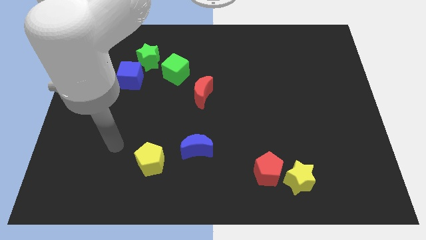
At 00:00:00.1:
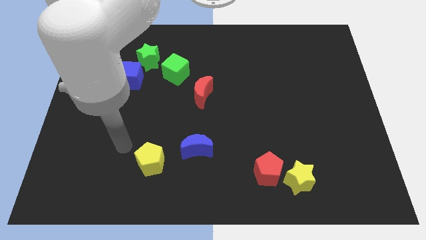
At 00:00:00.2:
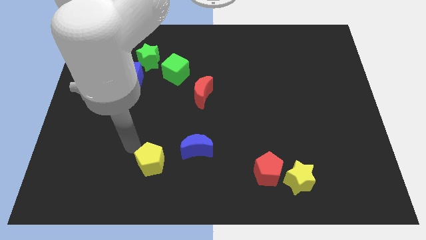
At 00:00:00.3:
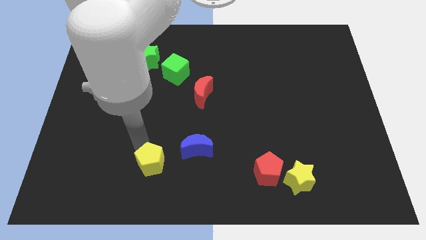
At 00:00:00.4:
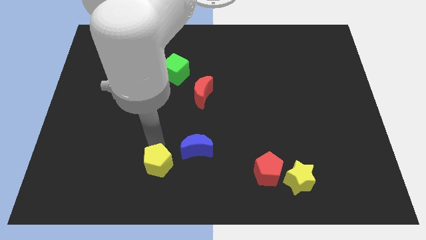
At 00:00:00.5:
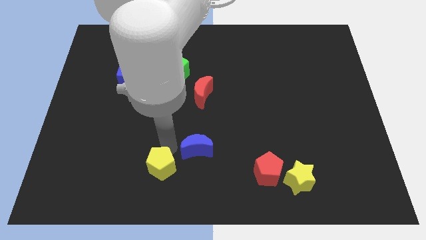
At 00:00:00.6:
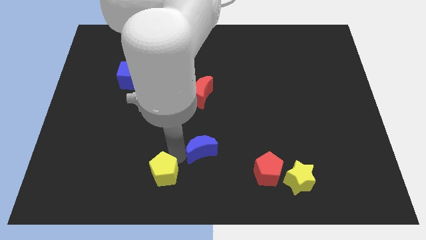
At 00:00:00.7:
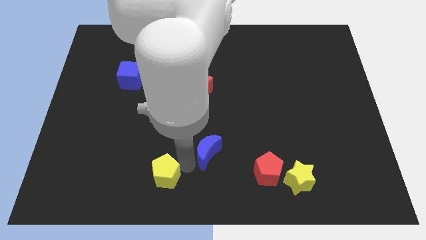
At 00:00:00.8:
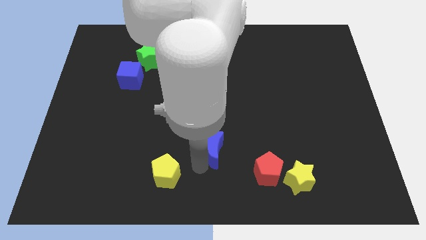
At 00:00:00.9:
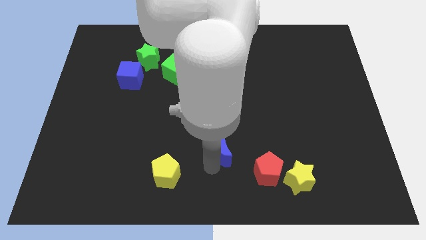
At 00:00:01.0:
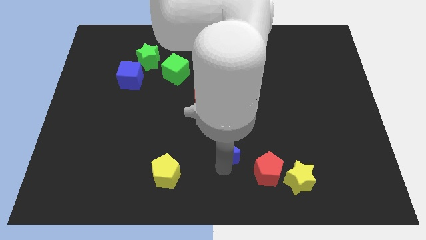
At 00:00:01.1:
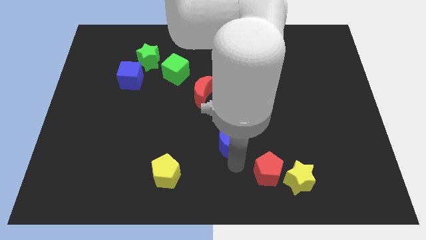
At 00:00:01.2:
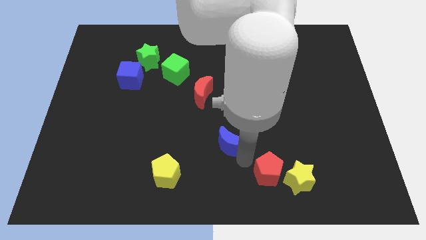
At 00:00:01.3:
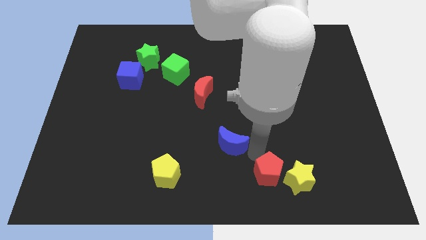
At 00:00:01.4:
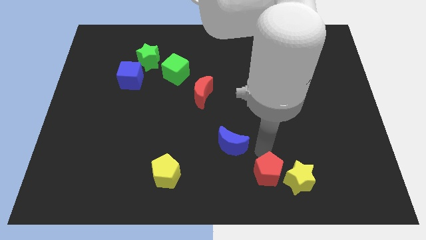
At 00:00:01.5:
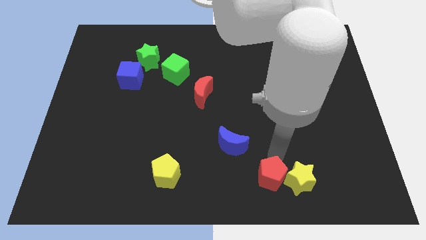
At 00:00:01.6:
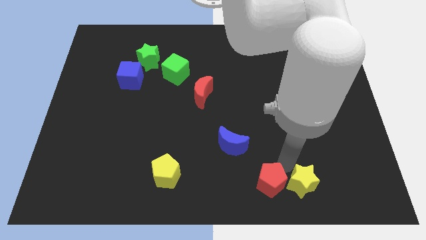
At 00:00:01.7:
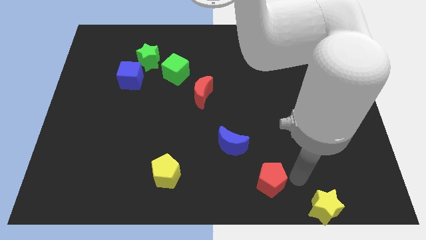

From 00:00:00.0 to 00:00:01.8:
pull the red pentagon apart from the yellow star

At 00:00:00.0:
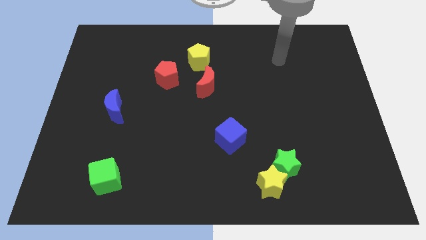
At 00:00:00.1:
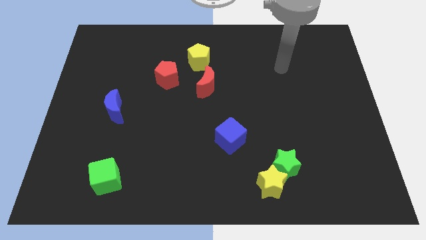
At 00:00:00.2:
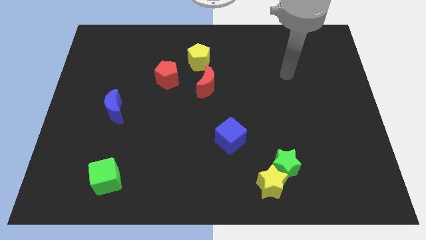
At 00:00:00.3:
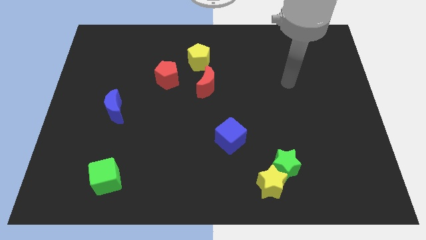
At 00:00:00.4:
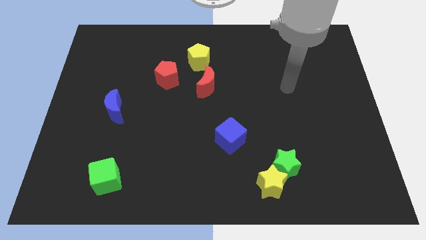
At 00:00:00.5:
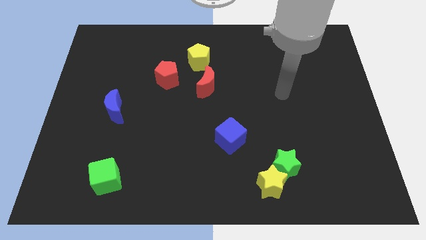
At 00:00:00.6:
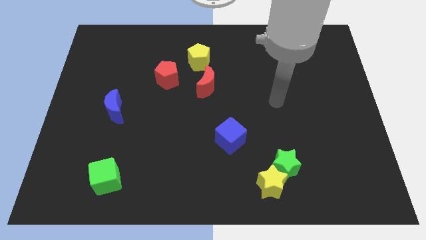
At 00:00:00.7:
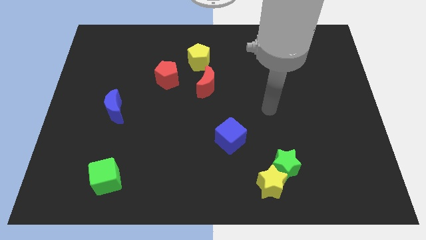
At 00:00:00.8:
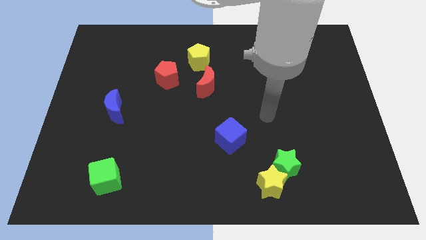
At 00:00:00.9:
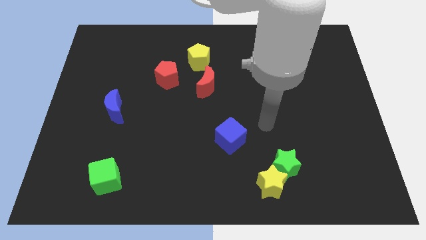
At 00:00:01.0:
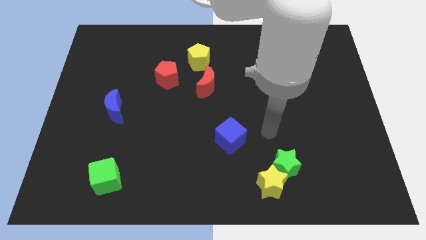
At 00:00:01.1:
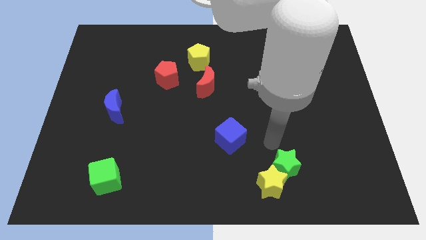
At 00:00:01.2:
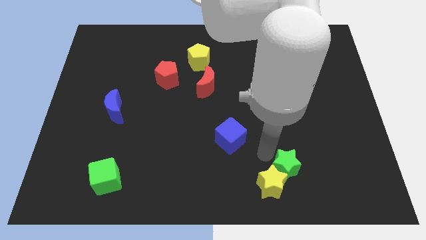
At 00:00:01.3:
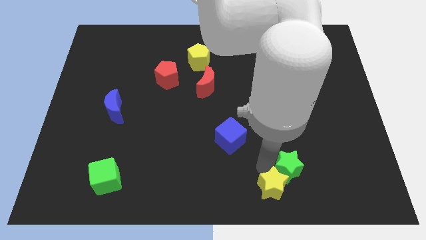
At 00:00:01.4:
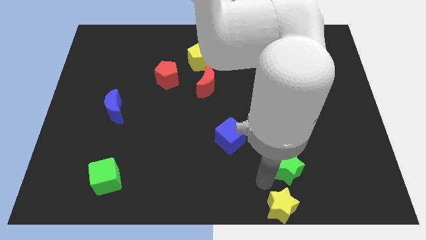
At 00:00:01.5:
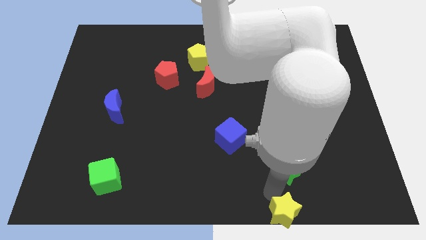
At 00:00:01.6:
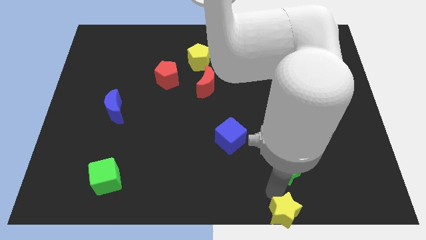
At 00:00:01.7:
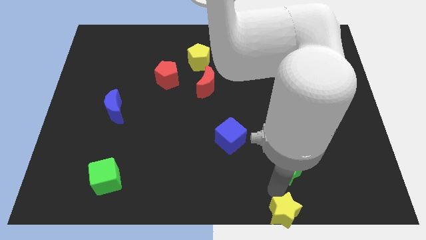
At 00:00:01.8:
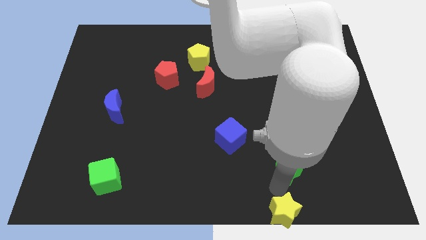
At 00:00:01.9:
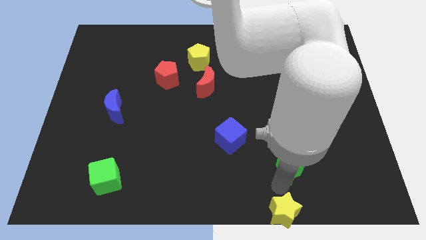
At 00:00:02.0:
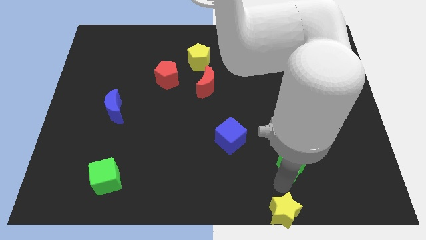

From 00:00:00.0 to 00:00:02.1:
separate the green star from the yellow star

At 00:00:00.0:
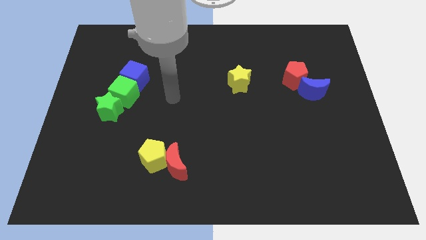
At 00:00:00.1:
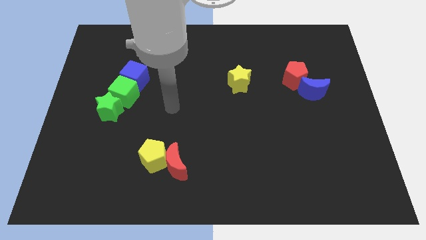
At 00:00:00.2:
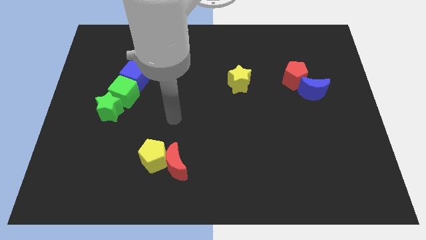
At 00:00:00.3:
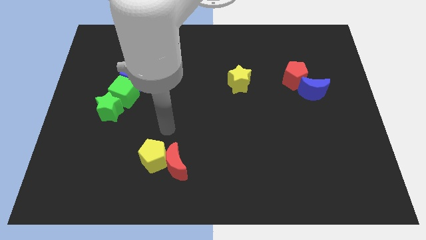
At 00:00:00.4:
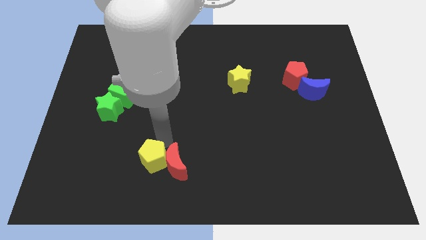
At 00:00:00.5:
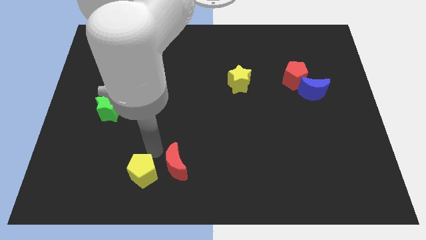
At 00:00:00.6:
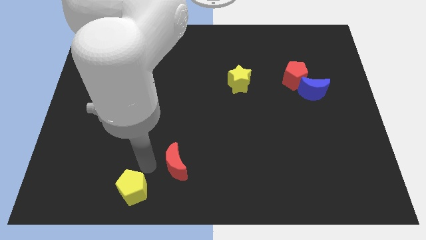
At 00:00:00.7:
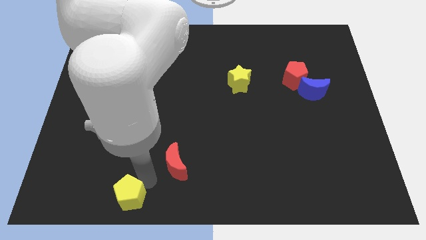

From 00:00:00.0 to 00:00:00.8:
move the red moon away from the yellow pentagon

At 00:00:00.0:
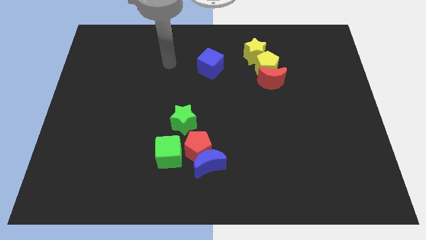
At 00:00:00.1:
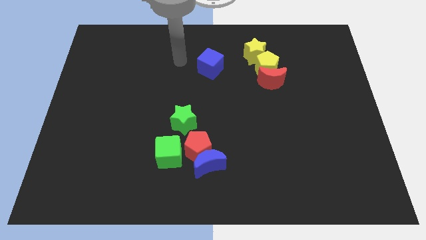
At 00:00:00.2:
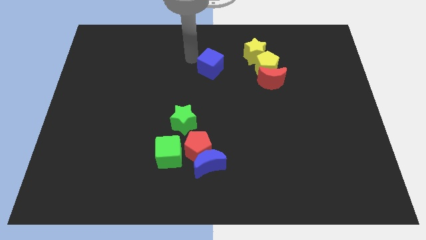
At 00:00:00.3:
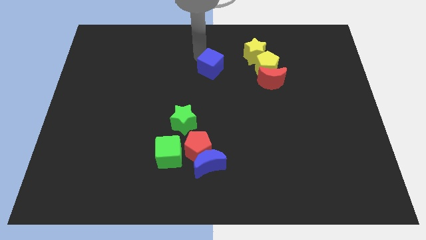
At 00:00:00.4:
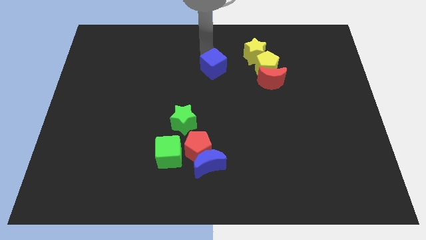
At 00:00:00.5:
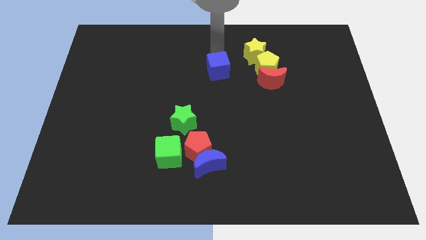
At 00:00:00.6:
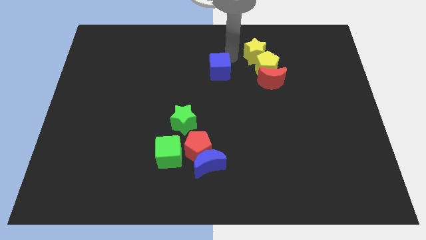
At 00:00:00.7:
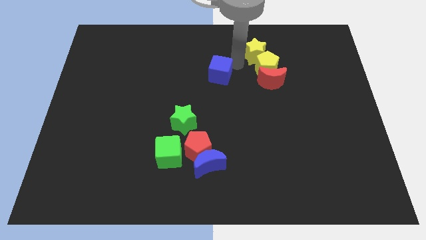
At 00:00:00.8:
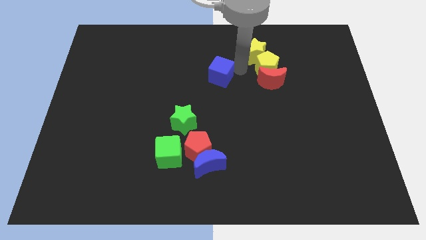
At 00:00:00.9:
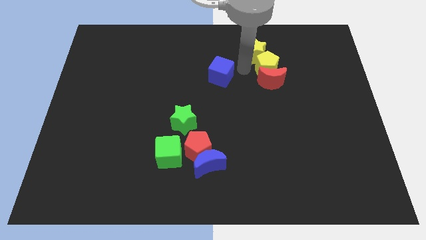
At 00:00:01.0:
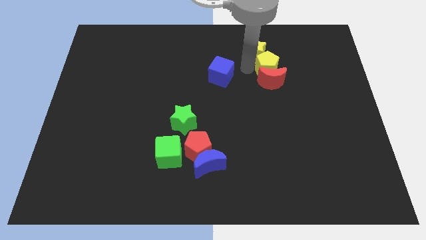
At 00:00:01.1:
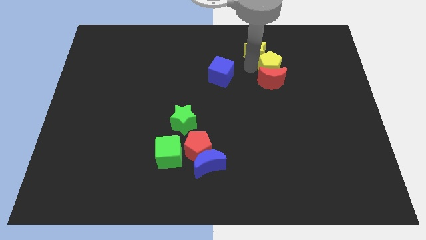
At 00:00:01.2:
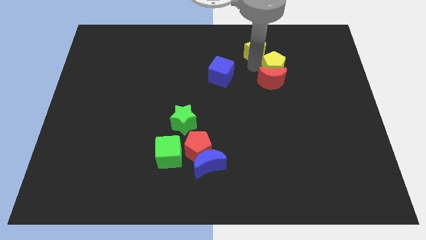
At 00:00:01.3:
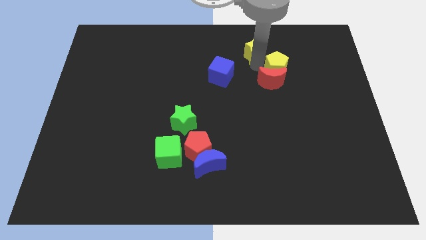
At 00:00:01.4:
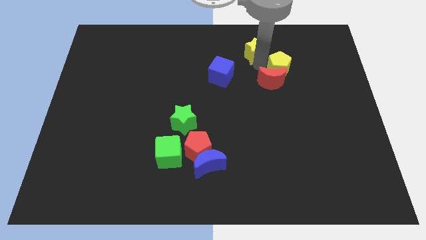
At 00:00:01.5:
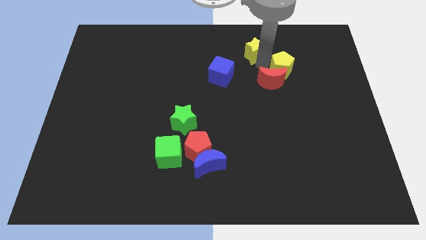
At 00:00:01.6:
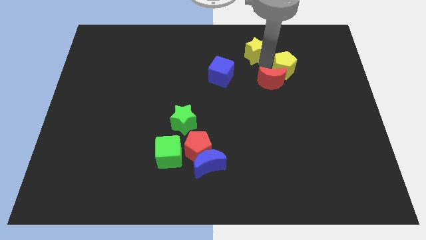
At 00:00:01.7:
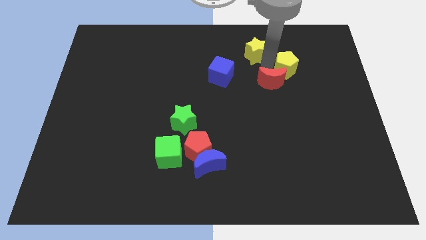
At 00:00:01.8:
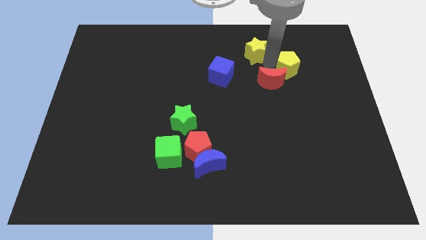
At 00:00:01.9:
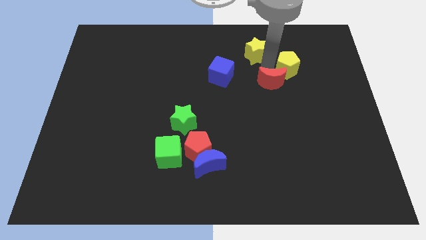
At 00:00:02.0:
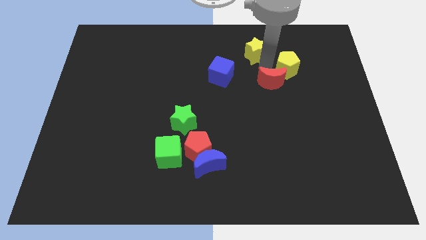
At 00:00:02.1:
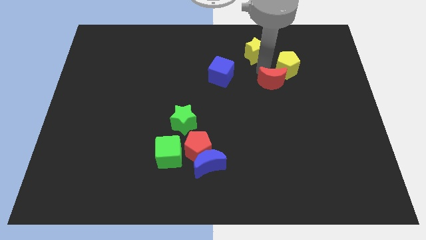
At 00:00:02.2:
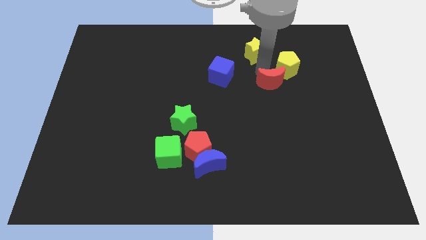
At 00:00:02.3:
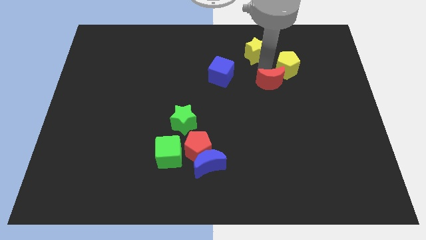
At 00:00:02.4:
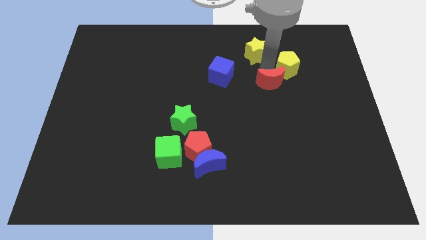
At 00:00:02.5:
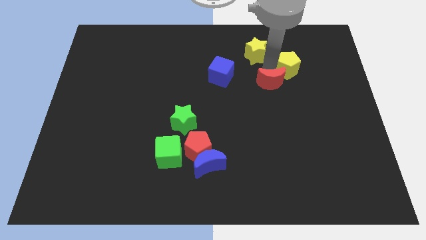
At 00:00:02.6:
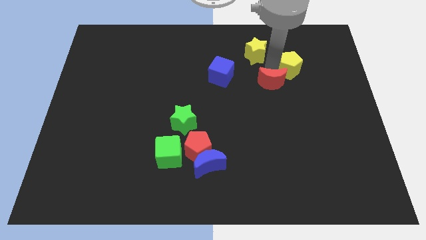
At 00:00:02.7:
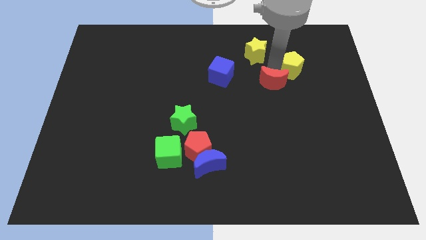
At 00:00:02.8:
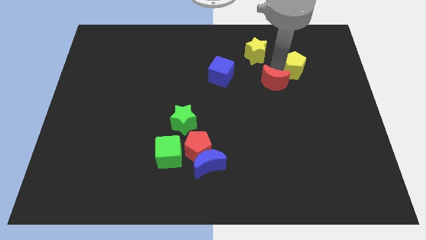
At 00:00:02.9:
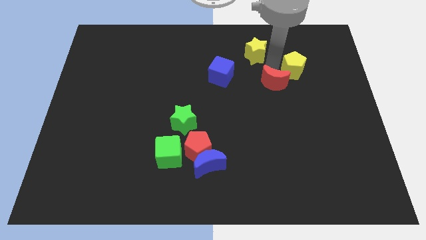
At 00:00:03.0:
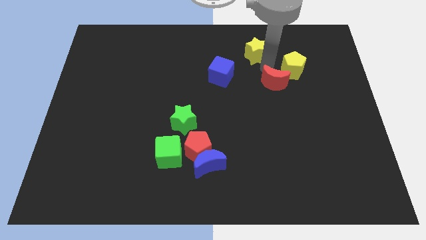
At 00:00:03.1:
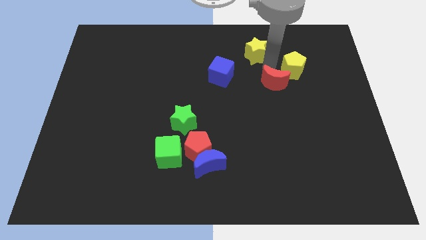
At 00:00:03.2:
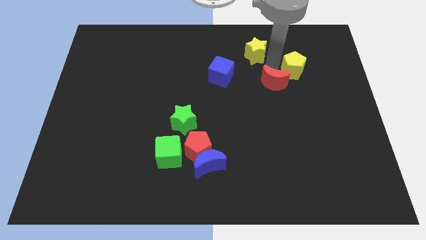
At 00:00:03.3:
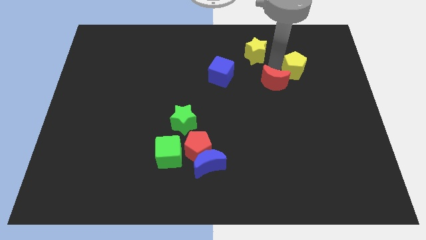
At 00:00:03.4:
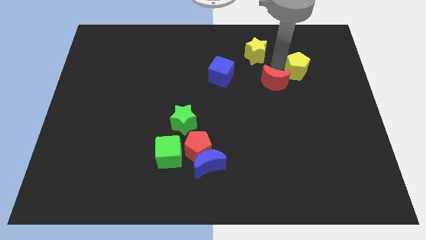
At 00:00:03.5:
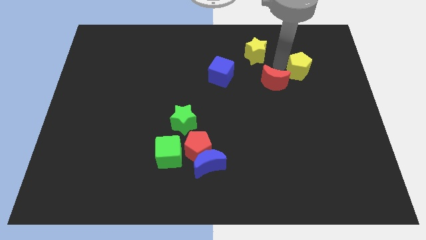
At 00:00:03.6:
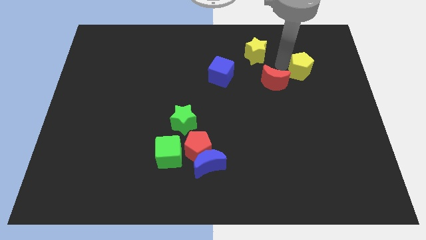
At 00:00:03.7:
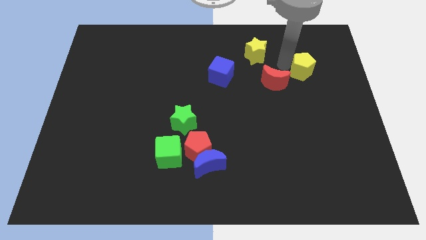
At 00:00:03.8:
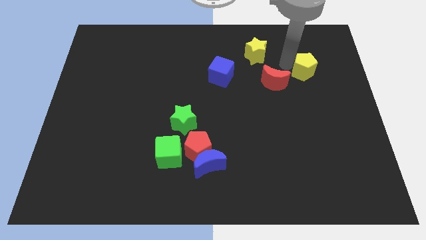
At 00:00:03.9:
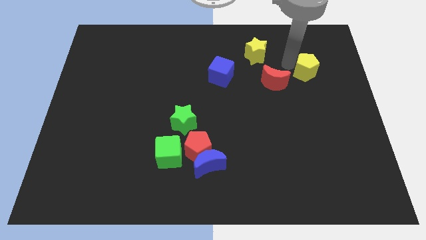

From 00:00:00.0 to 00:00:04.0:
separate the yellow pentagon from the red moon and yellow star

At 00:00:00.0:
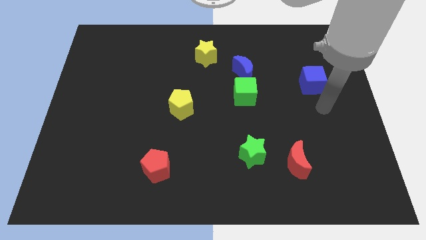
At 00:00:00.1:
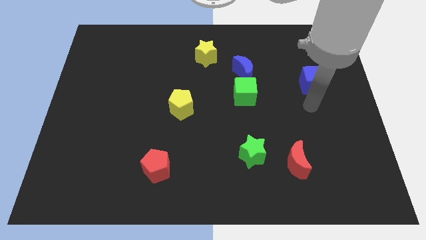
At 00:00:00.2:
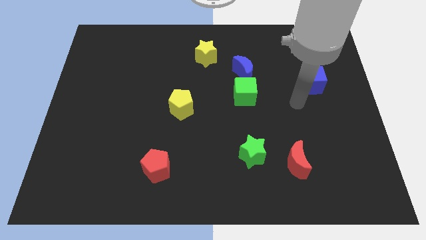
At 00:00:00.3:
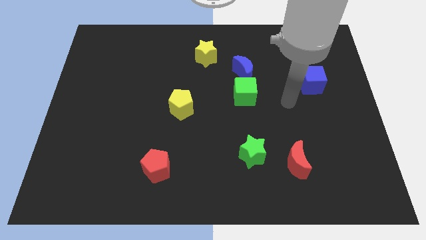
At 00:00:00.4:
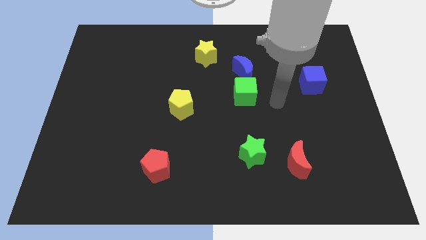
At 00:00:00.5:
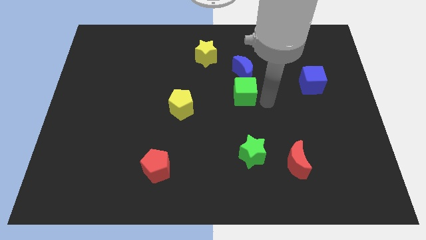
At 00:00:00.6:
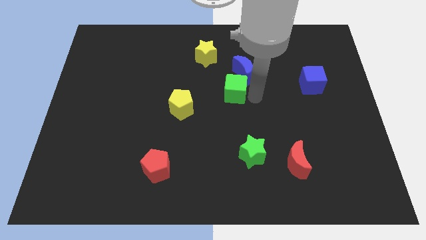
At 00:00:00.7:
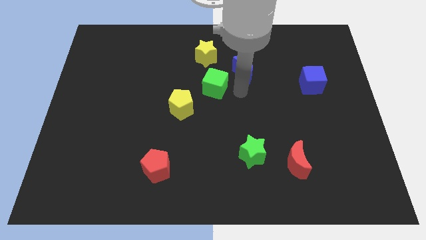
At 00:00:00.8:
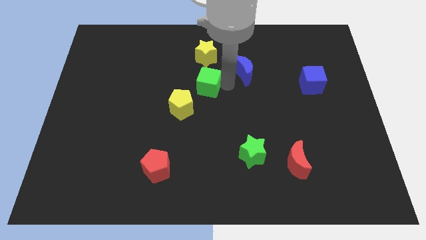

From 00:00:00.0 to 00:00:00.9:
pull the blue moon apart from the green cube
